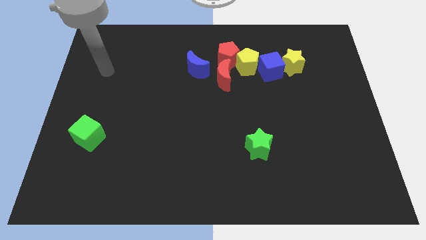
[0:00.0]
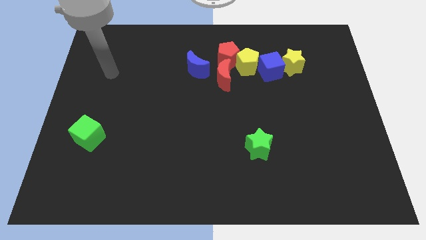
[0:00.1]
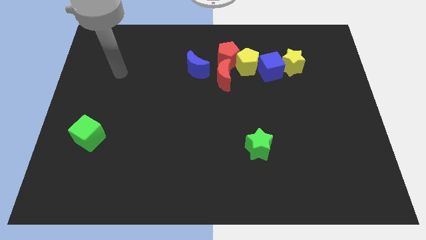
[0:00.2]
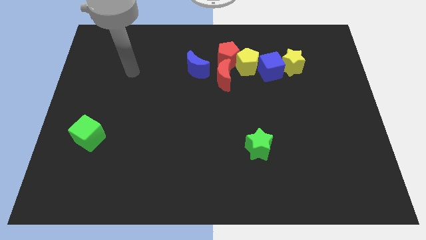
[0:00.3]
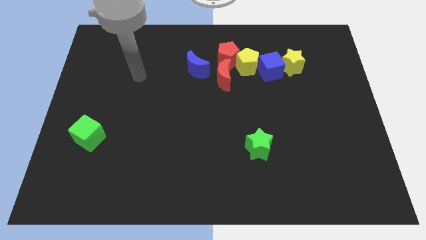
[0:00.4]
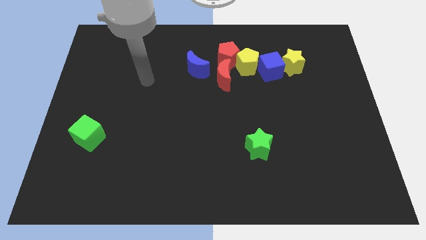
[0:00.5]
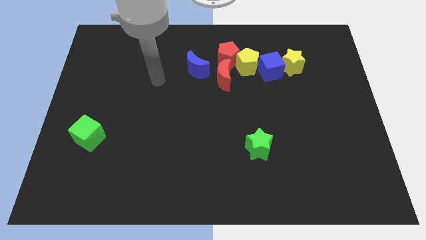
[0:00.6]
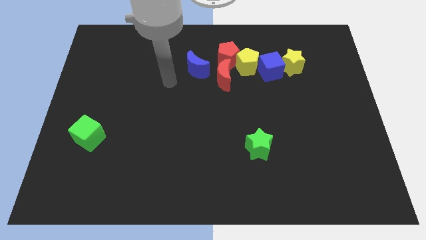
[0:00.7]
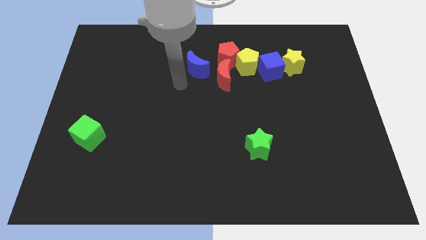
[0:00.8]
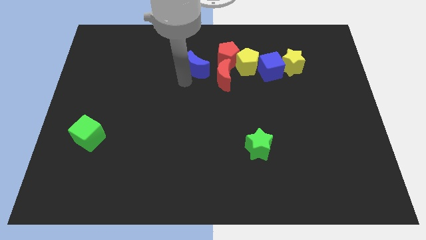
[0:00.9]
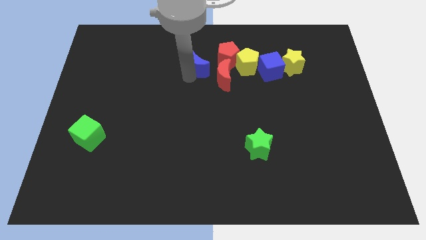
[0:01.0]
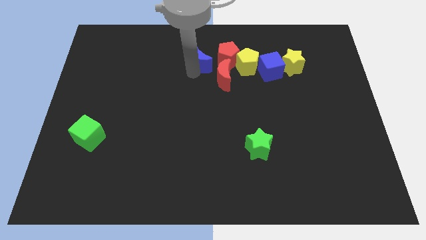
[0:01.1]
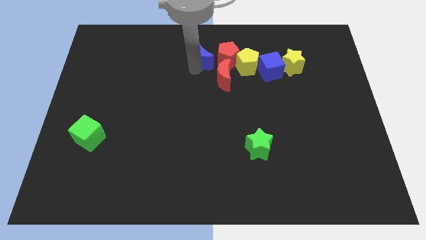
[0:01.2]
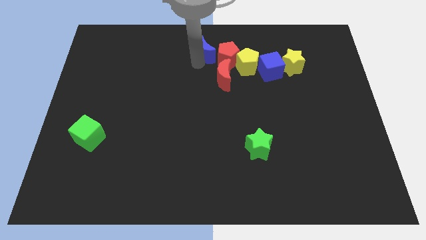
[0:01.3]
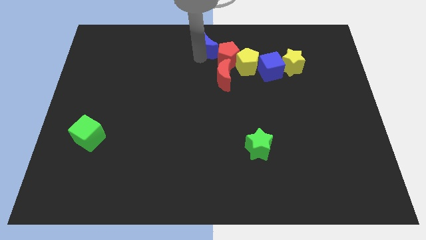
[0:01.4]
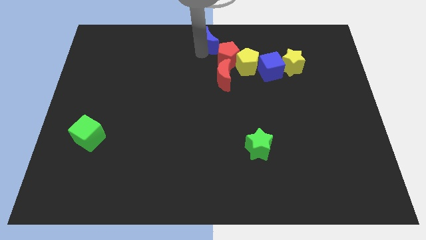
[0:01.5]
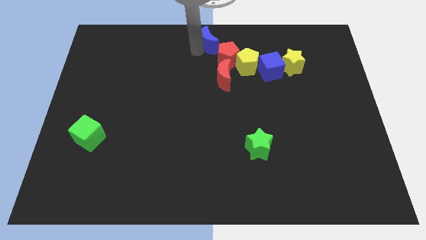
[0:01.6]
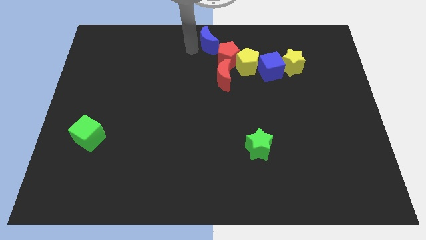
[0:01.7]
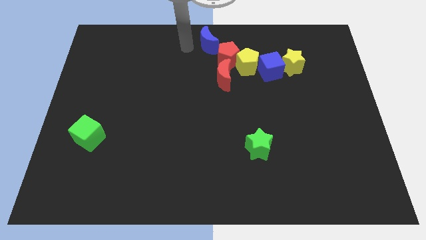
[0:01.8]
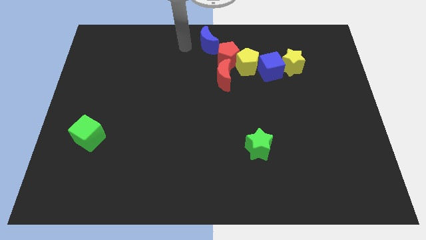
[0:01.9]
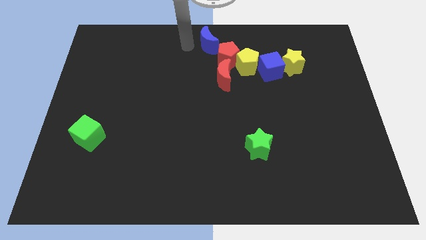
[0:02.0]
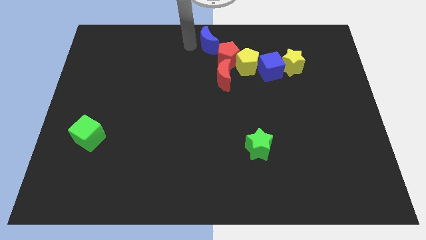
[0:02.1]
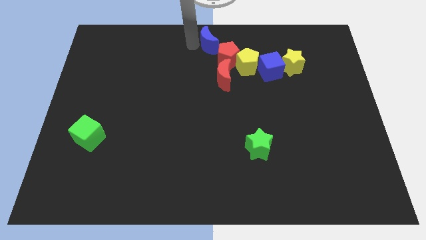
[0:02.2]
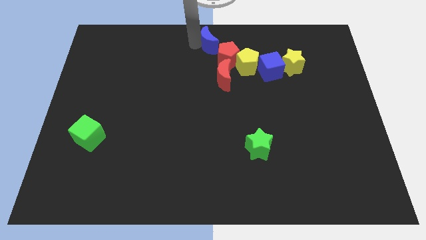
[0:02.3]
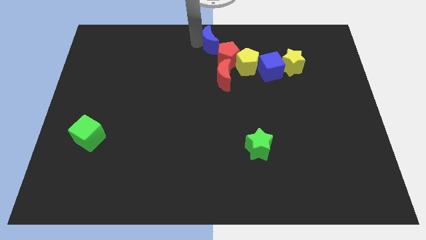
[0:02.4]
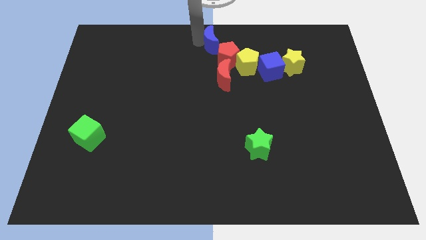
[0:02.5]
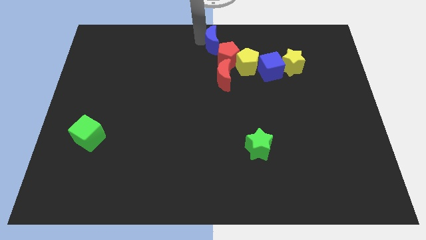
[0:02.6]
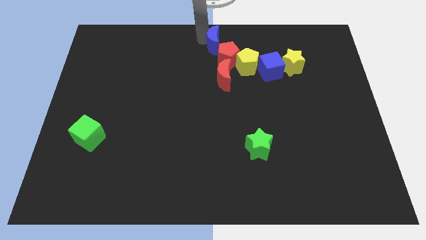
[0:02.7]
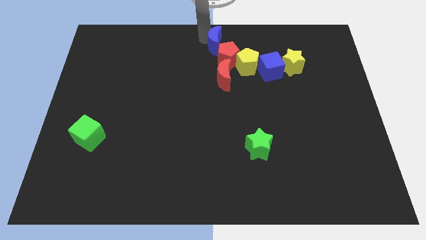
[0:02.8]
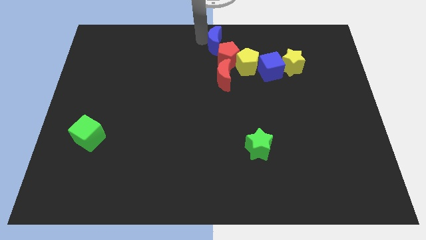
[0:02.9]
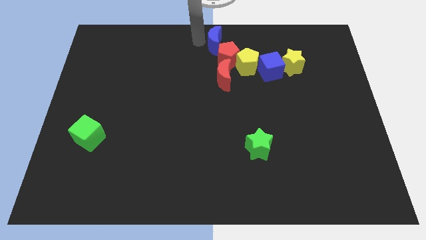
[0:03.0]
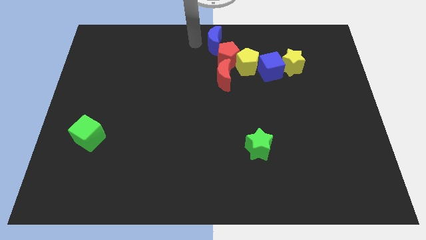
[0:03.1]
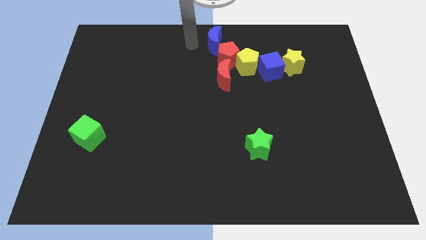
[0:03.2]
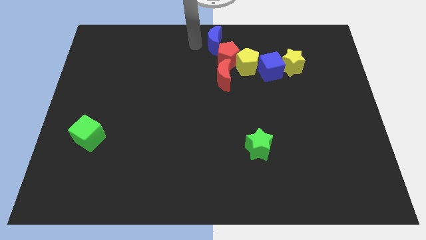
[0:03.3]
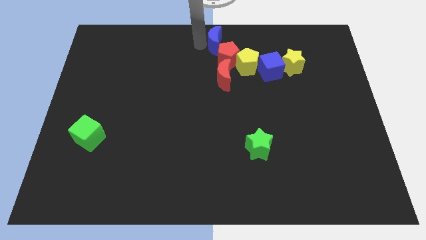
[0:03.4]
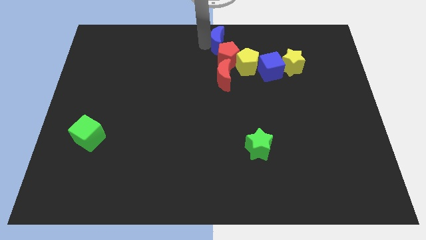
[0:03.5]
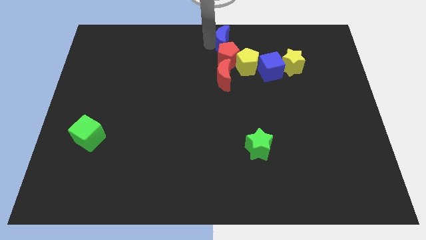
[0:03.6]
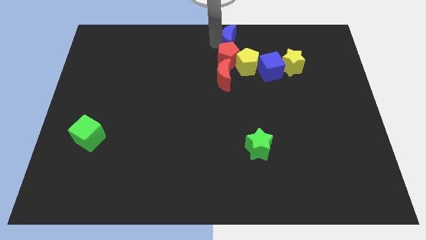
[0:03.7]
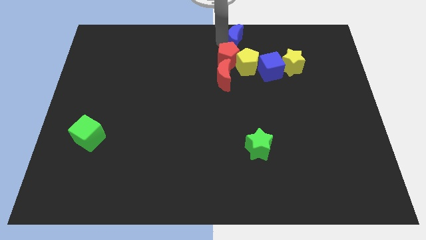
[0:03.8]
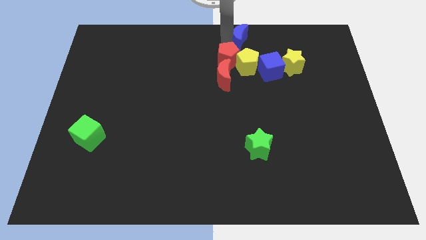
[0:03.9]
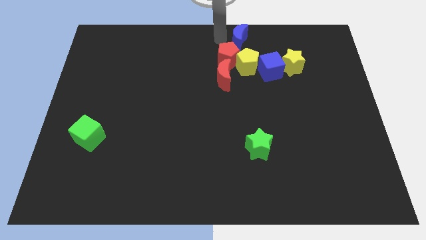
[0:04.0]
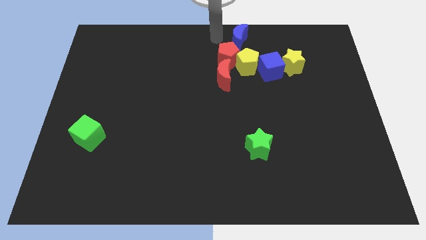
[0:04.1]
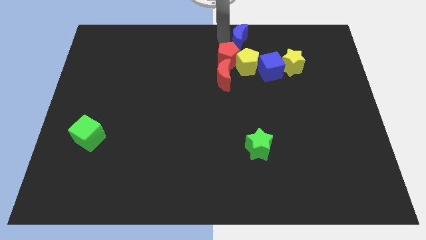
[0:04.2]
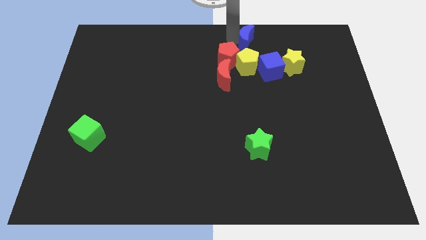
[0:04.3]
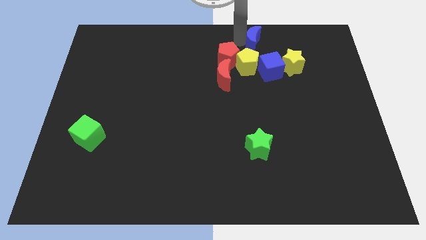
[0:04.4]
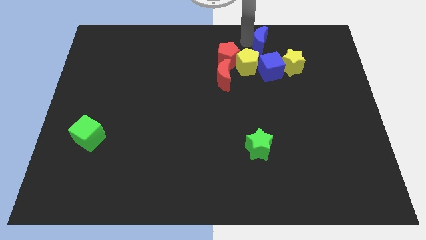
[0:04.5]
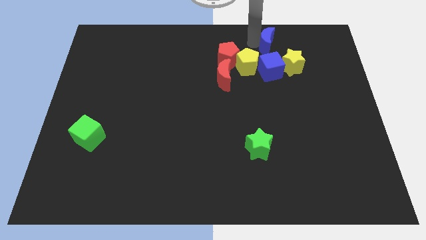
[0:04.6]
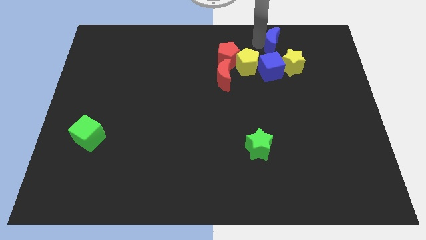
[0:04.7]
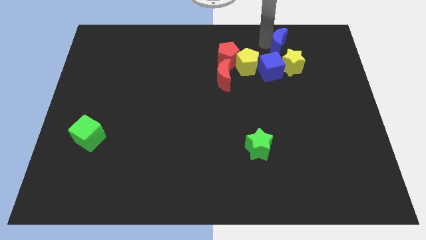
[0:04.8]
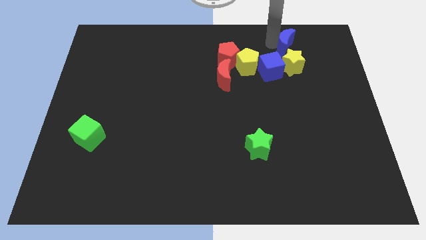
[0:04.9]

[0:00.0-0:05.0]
slide the blue moon right

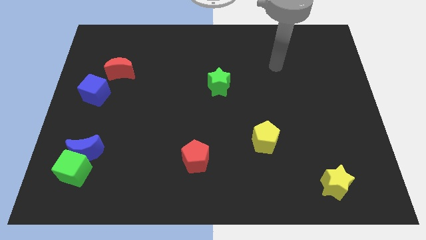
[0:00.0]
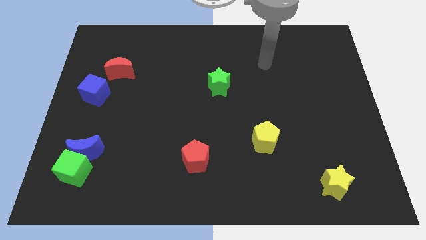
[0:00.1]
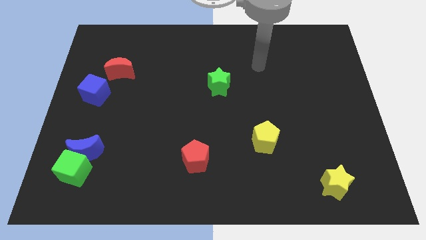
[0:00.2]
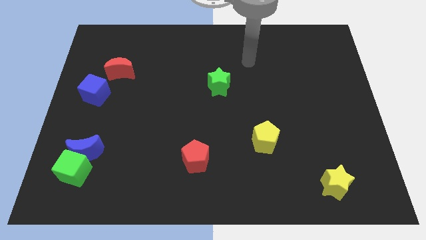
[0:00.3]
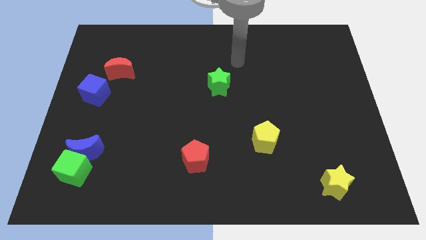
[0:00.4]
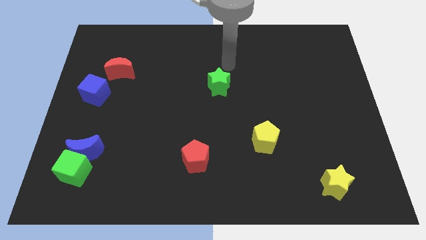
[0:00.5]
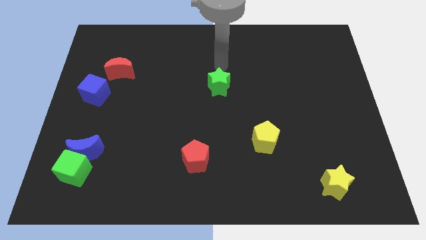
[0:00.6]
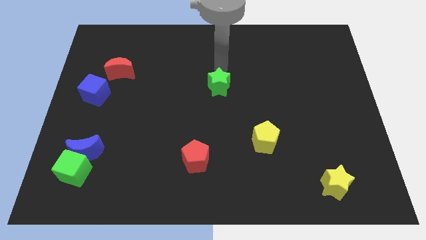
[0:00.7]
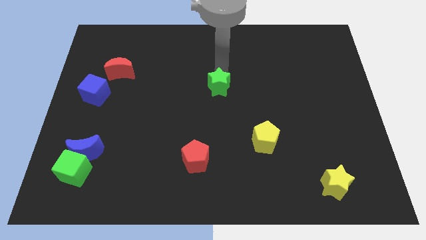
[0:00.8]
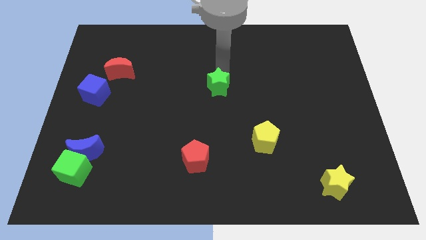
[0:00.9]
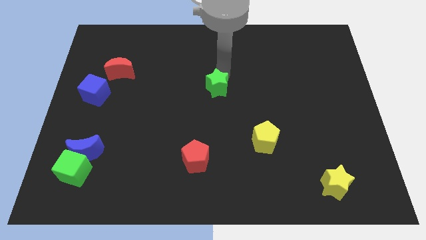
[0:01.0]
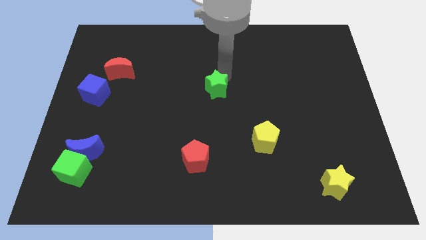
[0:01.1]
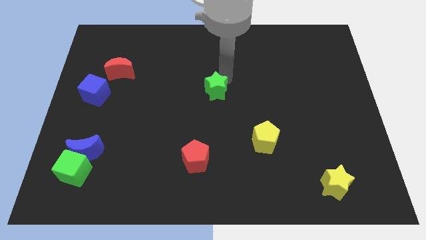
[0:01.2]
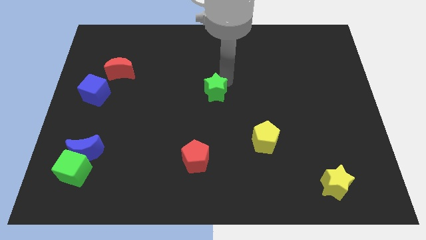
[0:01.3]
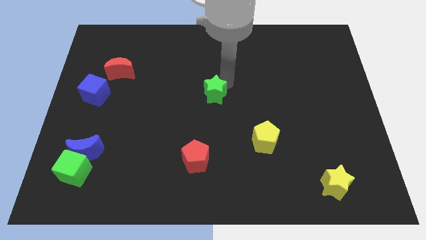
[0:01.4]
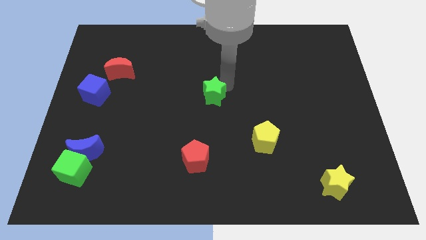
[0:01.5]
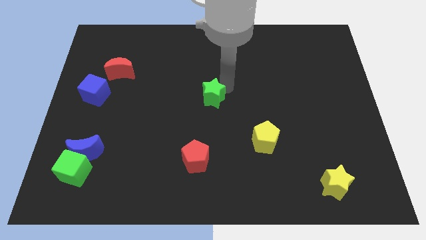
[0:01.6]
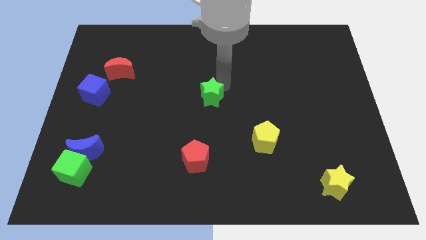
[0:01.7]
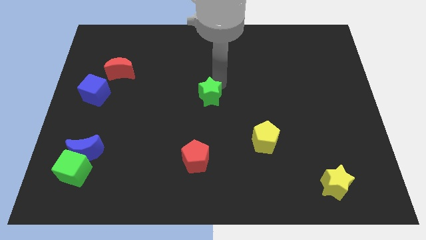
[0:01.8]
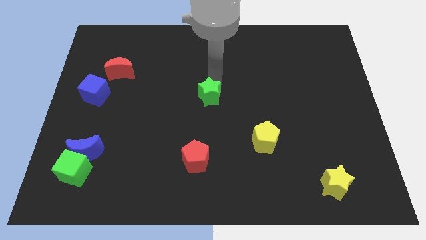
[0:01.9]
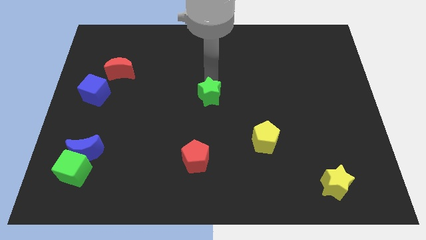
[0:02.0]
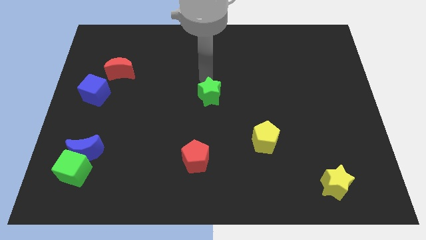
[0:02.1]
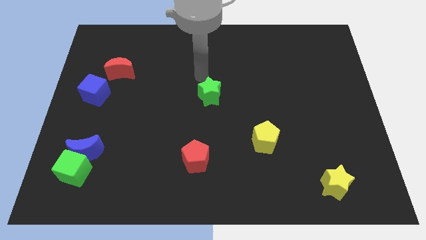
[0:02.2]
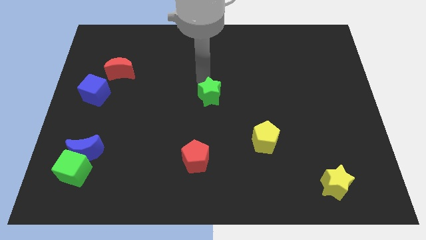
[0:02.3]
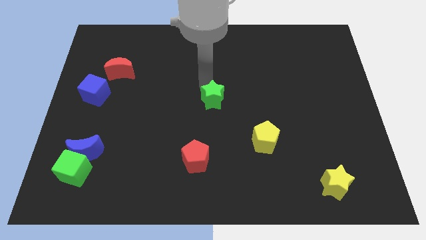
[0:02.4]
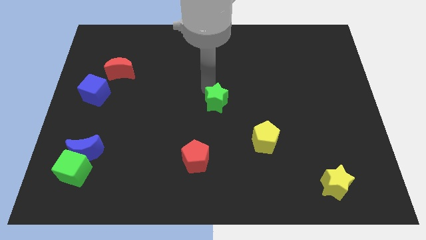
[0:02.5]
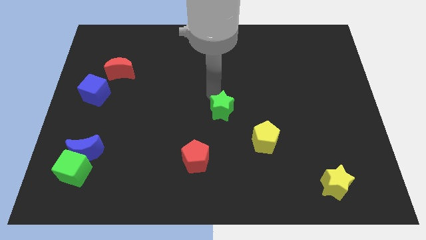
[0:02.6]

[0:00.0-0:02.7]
push the green star a bit downwards

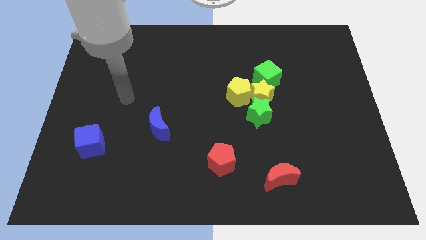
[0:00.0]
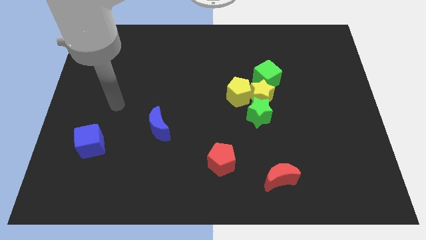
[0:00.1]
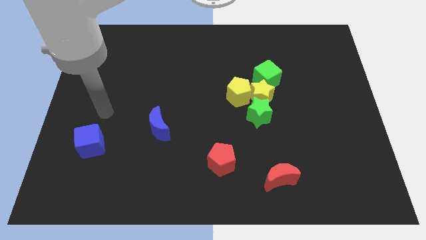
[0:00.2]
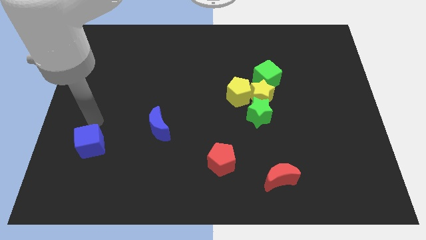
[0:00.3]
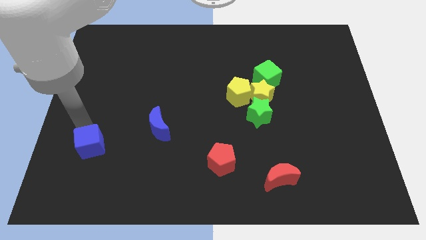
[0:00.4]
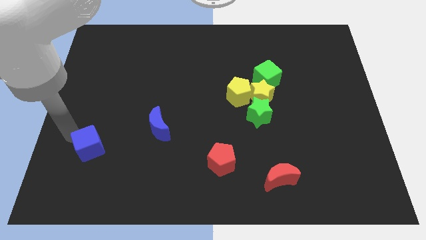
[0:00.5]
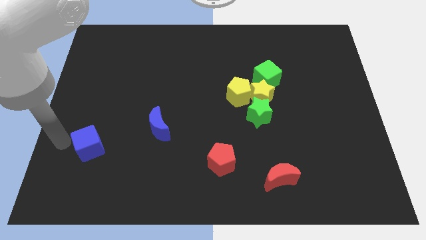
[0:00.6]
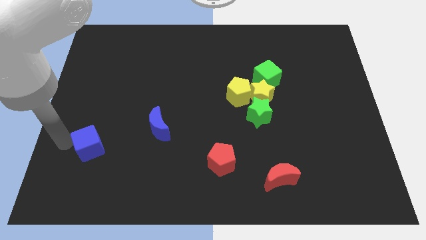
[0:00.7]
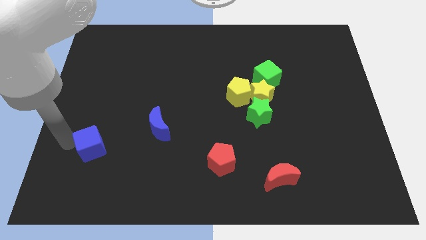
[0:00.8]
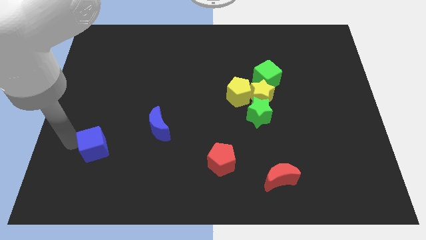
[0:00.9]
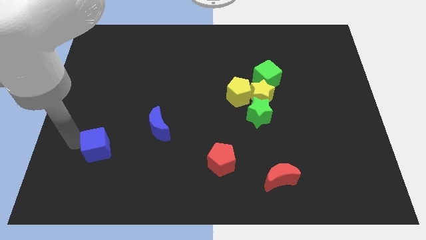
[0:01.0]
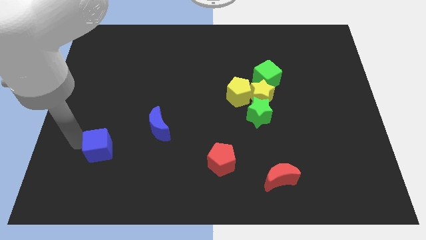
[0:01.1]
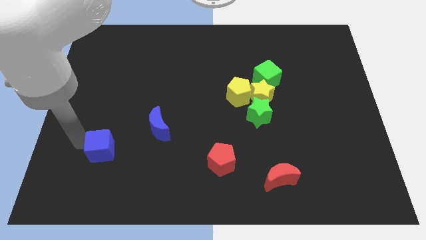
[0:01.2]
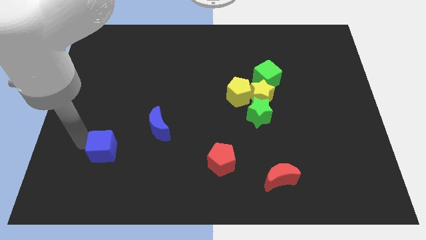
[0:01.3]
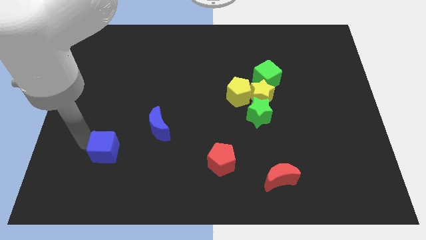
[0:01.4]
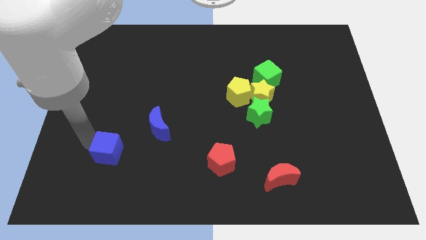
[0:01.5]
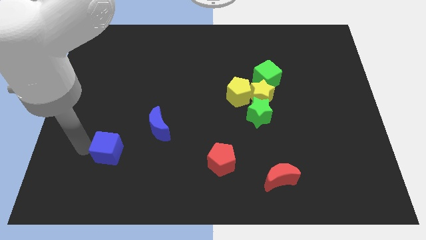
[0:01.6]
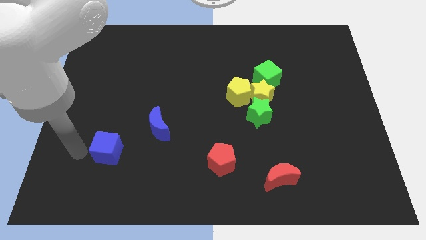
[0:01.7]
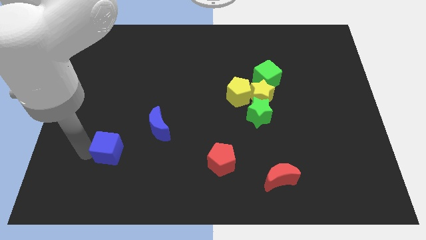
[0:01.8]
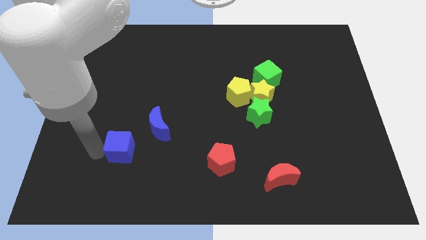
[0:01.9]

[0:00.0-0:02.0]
push the blue cube right somewhat
